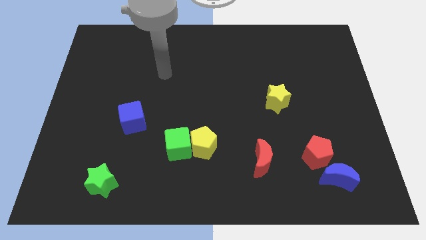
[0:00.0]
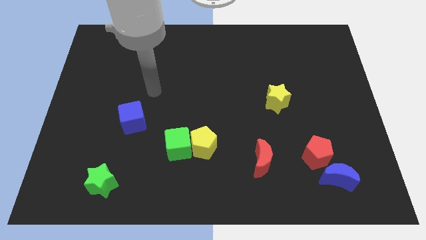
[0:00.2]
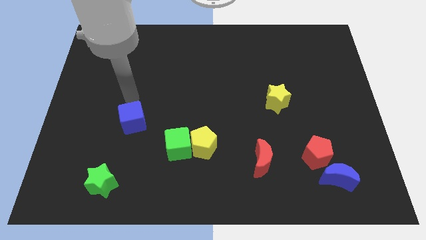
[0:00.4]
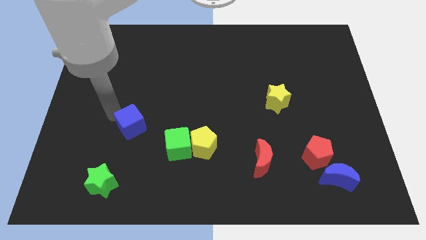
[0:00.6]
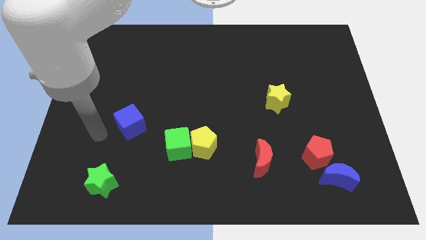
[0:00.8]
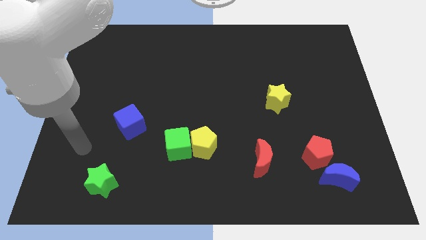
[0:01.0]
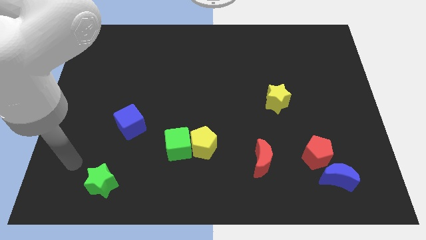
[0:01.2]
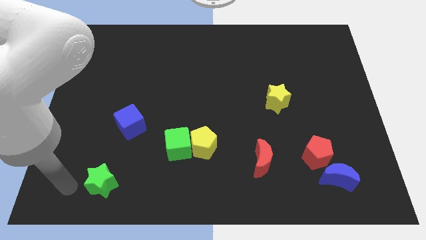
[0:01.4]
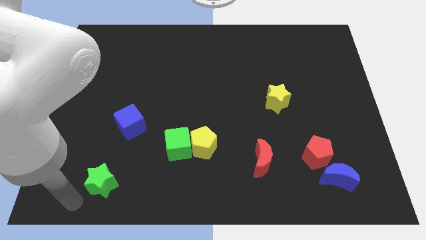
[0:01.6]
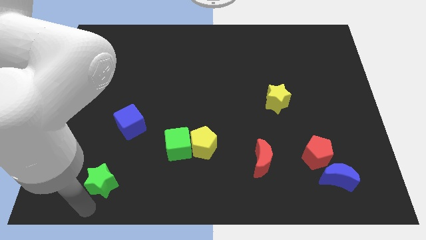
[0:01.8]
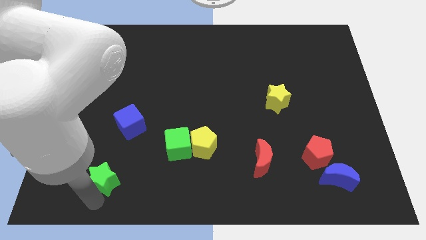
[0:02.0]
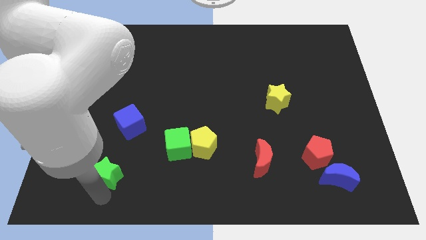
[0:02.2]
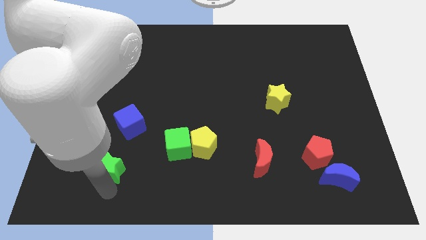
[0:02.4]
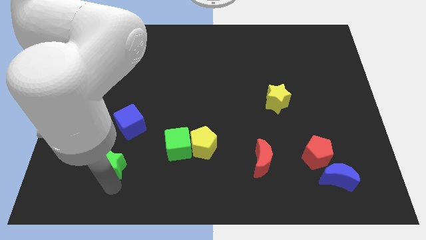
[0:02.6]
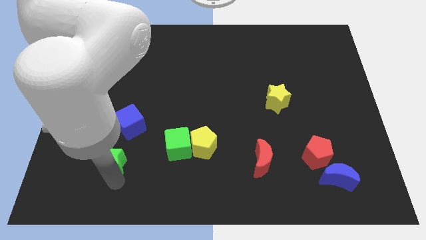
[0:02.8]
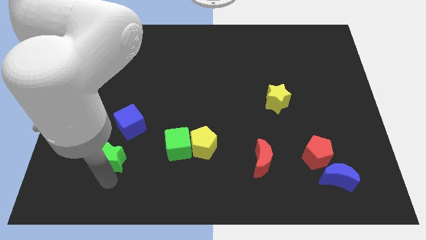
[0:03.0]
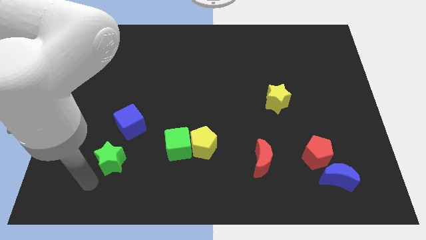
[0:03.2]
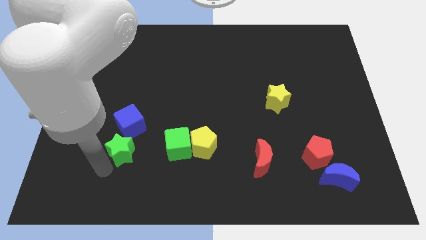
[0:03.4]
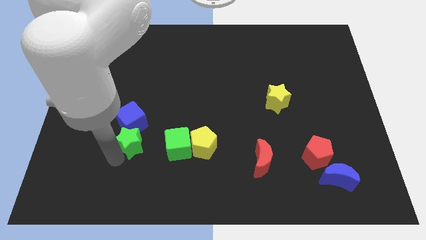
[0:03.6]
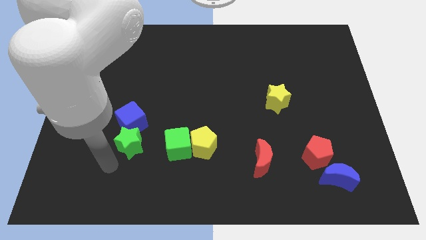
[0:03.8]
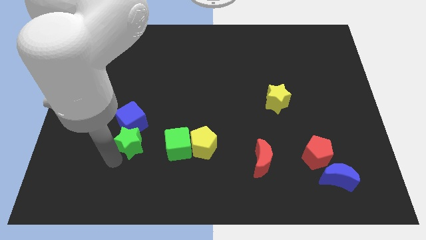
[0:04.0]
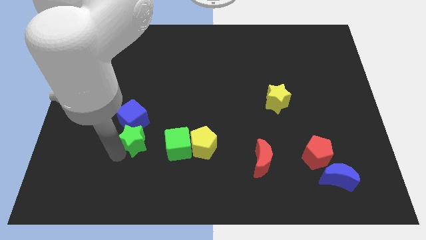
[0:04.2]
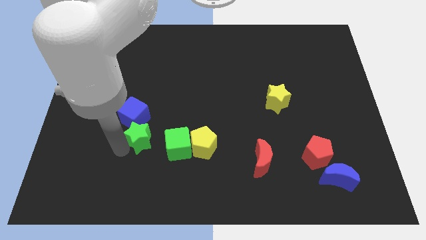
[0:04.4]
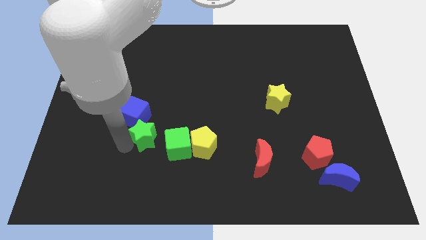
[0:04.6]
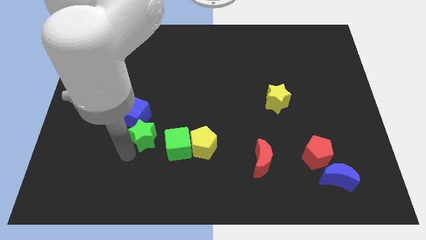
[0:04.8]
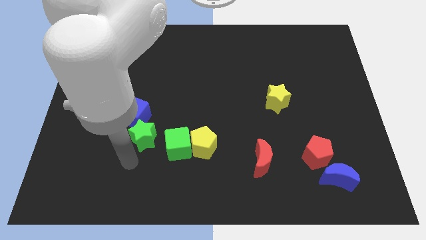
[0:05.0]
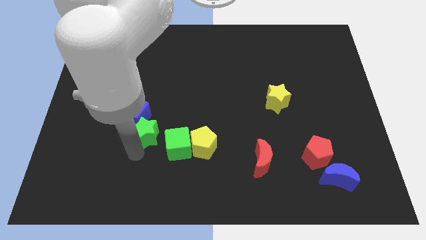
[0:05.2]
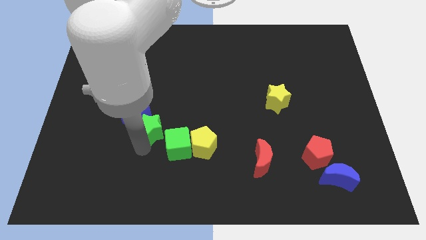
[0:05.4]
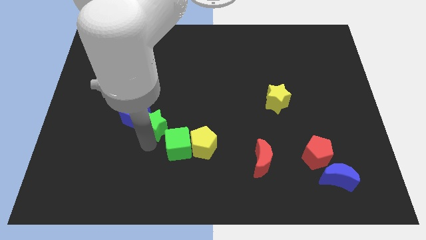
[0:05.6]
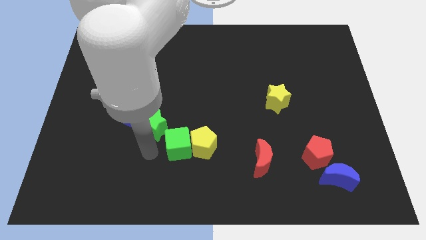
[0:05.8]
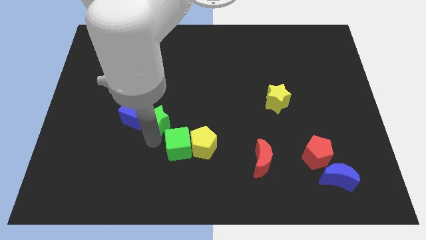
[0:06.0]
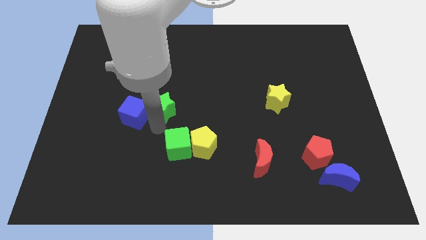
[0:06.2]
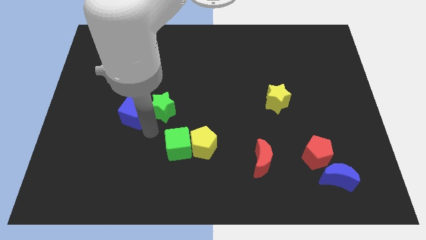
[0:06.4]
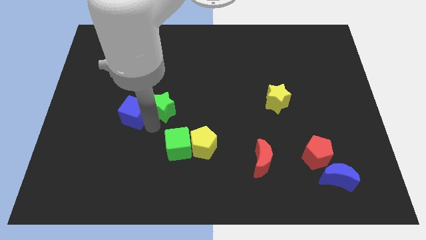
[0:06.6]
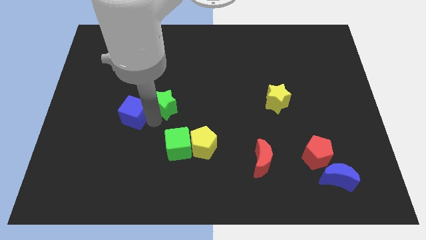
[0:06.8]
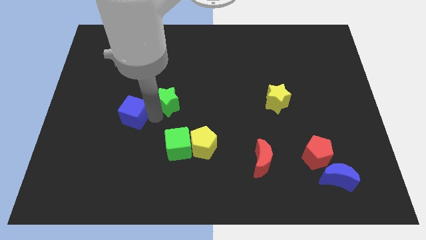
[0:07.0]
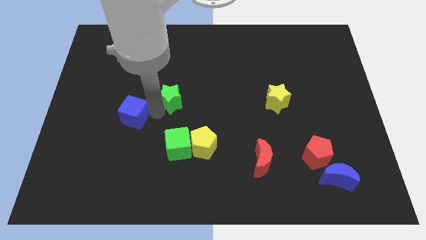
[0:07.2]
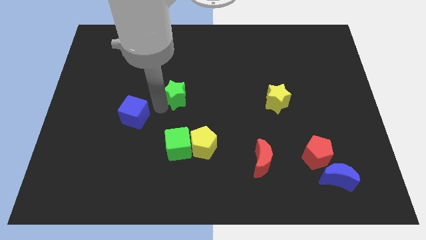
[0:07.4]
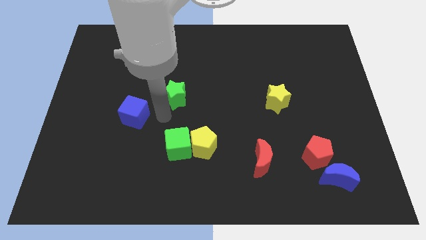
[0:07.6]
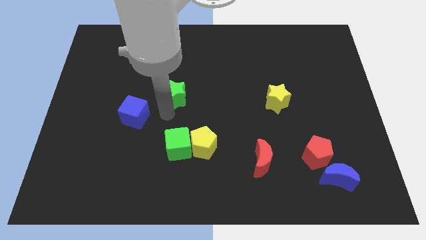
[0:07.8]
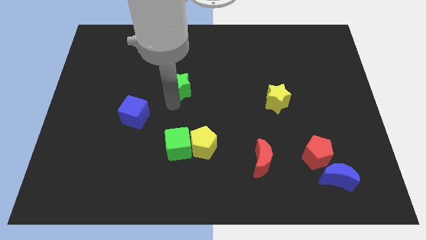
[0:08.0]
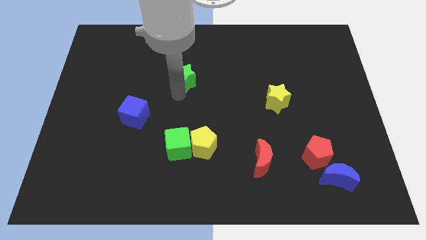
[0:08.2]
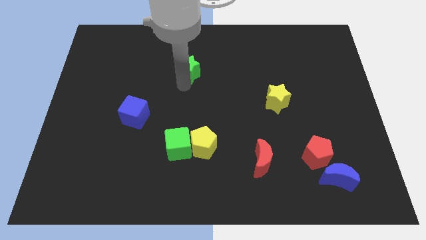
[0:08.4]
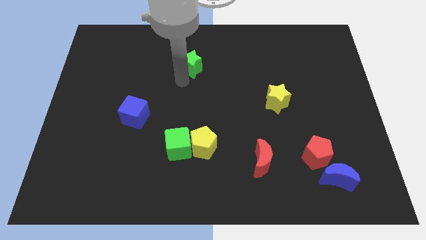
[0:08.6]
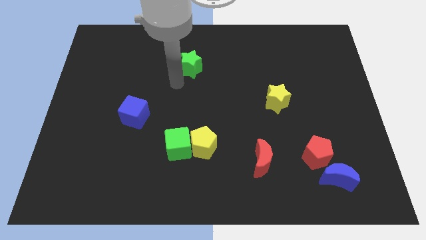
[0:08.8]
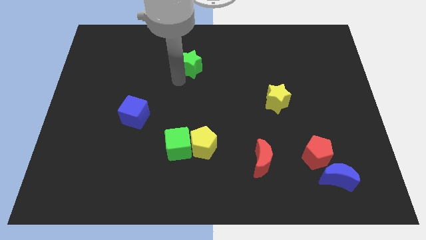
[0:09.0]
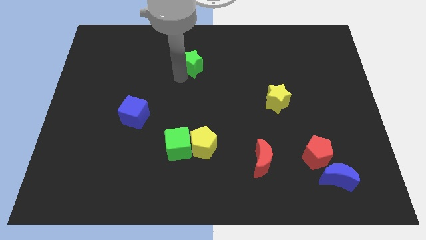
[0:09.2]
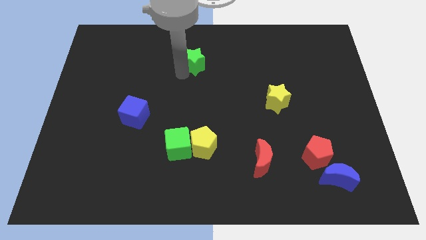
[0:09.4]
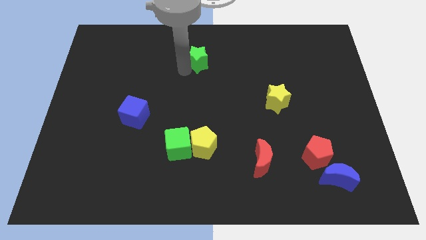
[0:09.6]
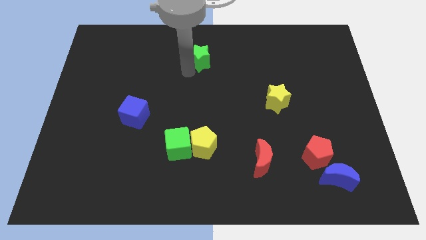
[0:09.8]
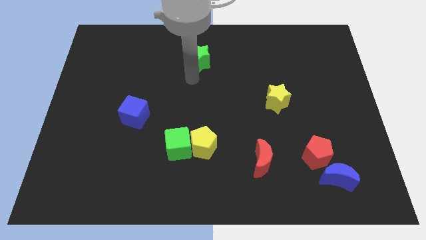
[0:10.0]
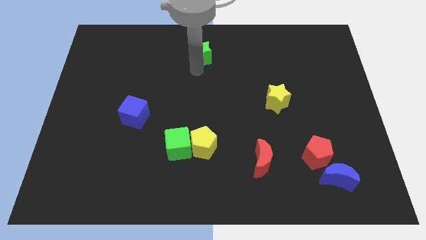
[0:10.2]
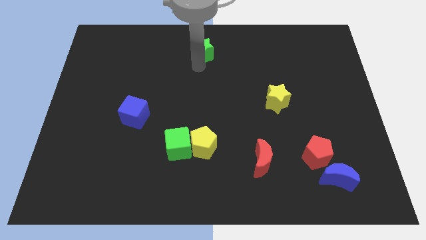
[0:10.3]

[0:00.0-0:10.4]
push the green star to the towards your base

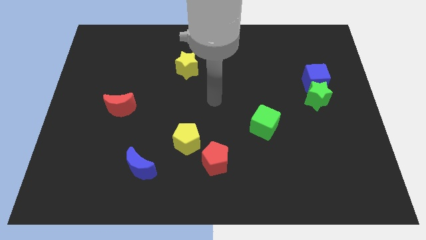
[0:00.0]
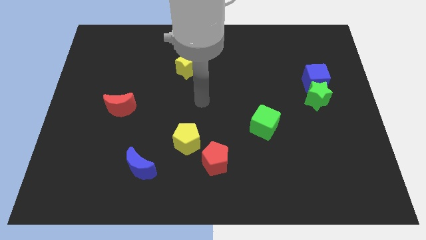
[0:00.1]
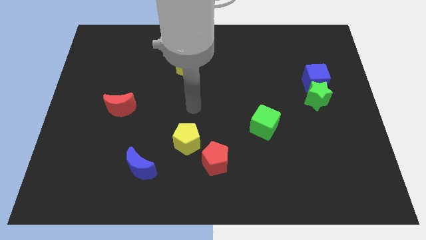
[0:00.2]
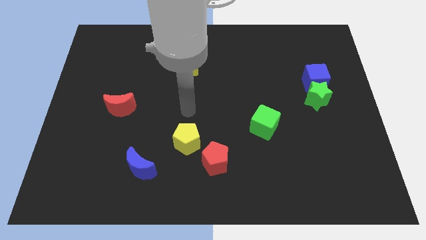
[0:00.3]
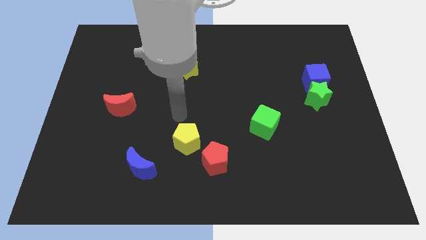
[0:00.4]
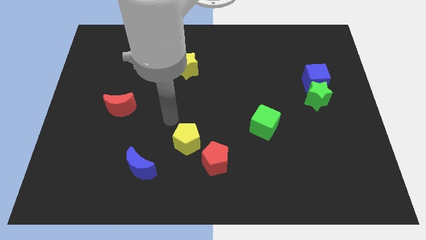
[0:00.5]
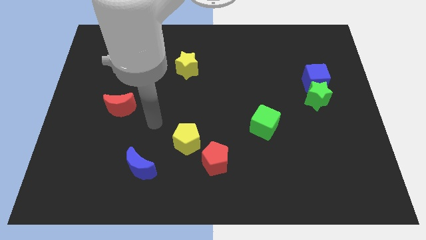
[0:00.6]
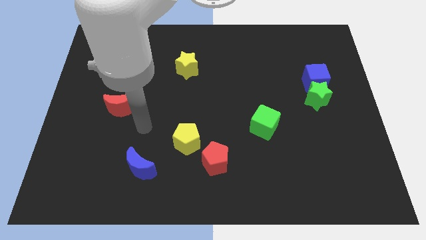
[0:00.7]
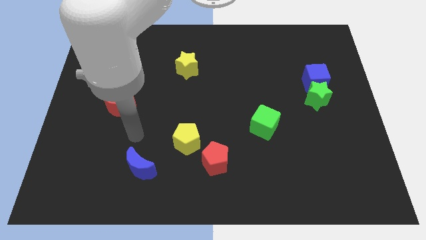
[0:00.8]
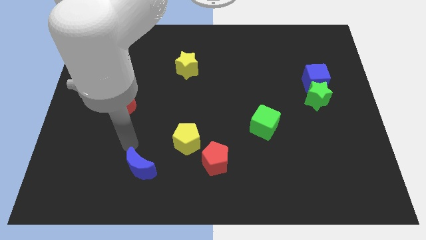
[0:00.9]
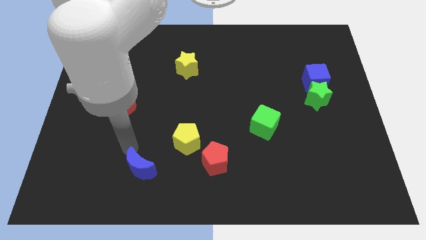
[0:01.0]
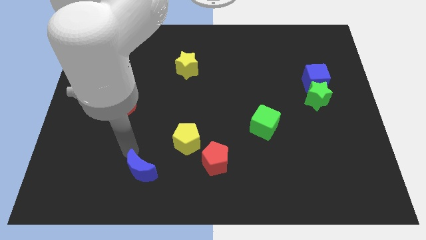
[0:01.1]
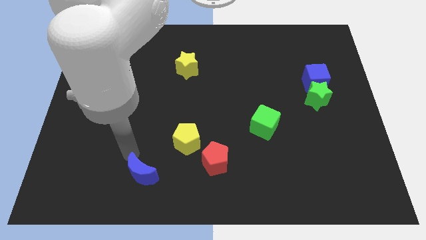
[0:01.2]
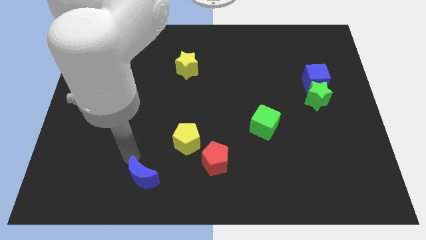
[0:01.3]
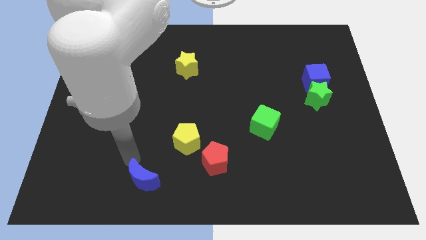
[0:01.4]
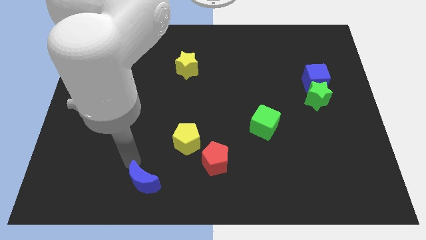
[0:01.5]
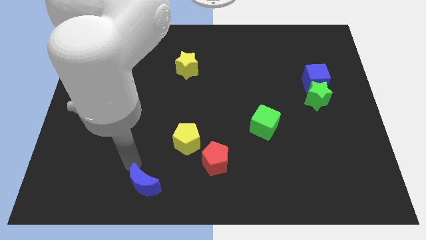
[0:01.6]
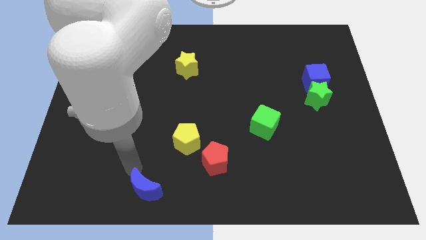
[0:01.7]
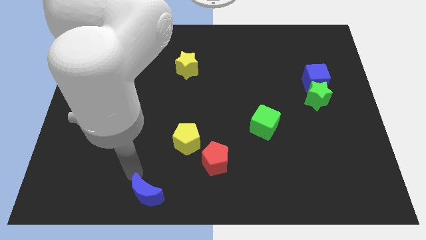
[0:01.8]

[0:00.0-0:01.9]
push the blue moon to the bottom side
